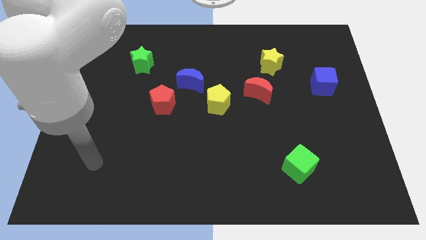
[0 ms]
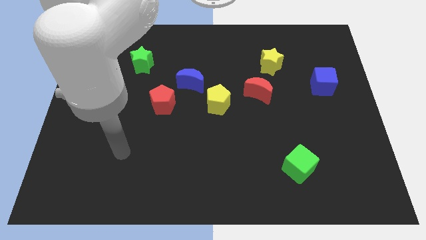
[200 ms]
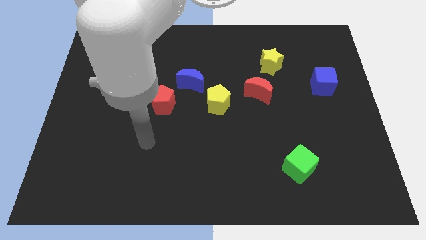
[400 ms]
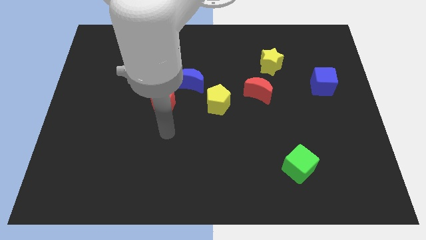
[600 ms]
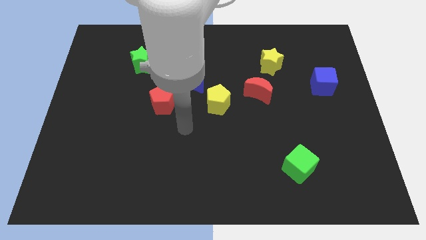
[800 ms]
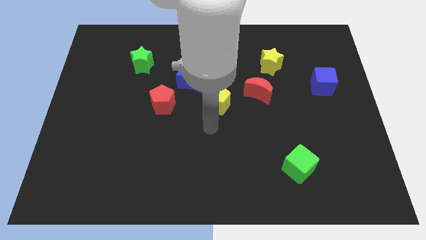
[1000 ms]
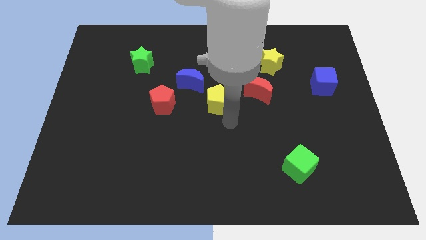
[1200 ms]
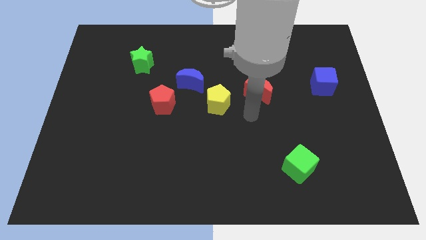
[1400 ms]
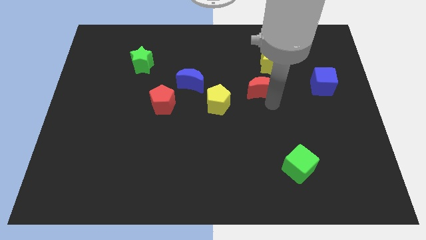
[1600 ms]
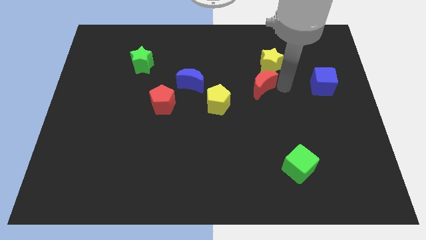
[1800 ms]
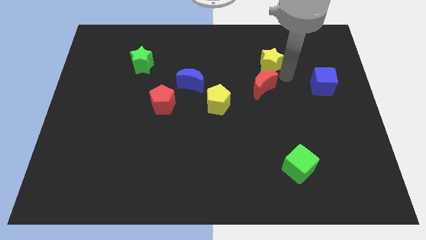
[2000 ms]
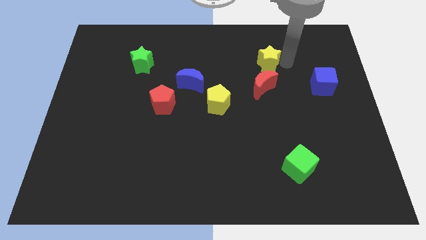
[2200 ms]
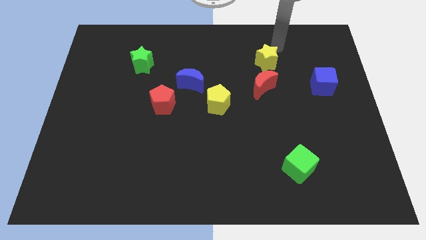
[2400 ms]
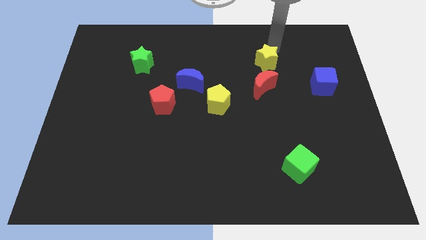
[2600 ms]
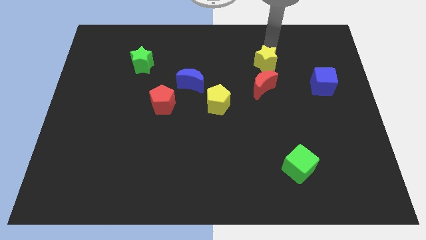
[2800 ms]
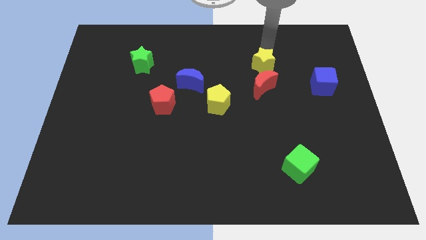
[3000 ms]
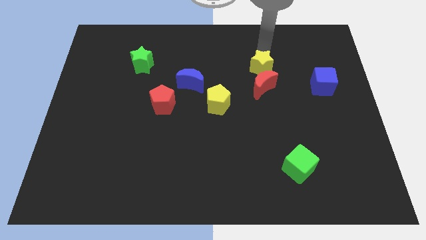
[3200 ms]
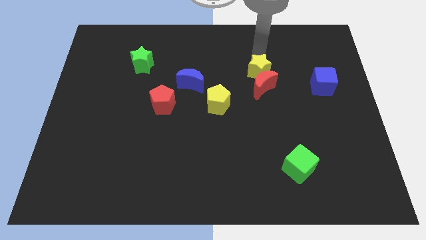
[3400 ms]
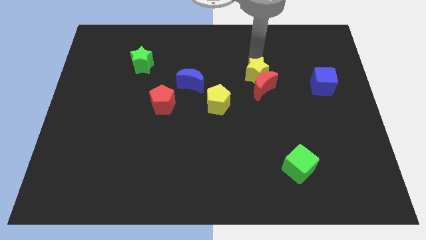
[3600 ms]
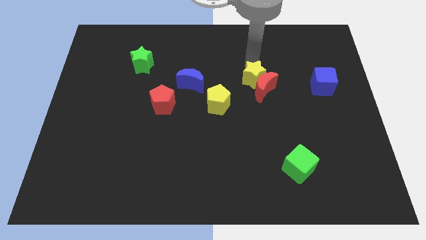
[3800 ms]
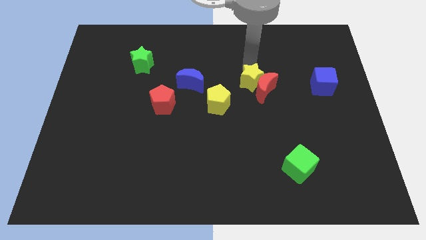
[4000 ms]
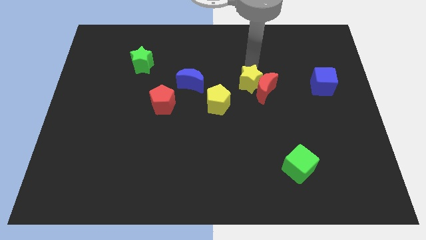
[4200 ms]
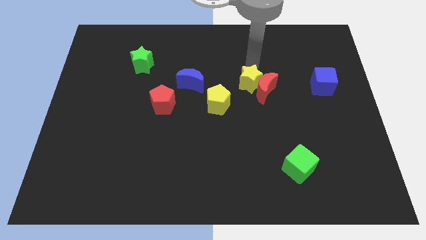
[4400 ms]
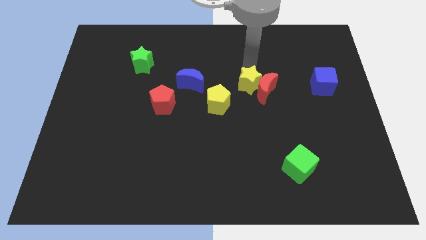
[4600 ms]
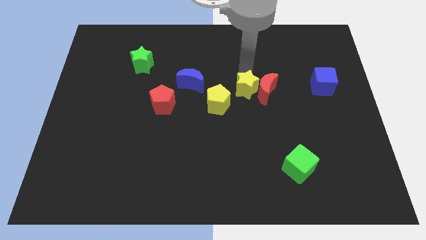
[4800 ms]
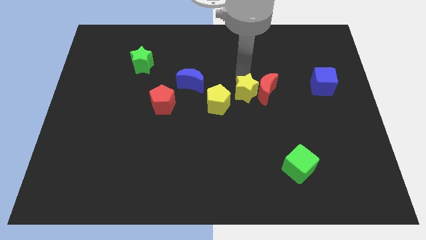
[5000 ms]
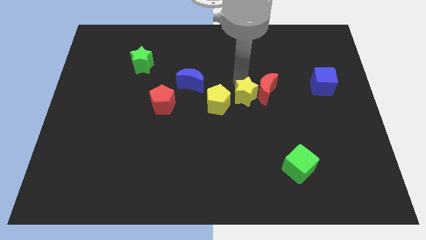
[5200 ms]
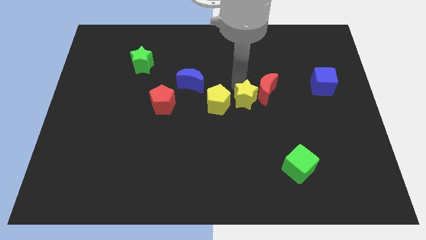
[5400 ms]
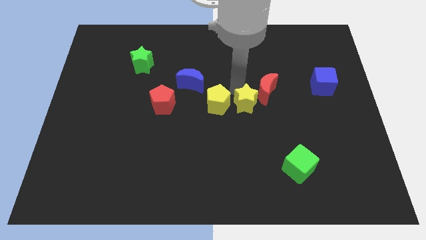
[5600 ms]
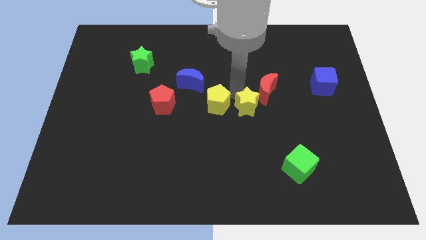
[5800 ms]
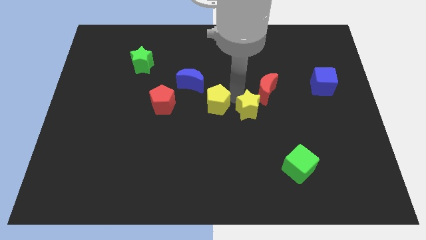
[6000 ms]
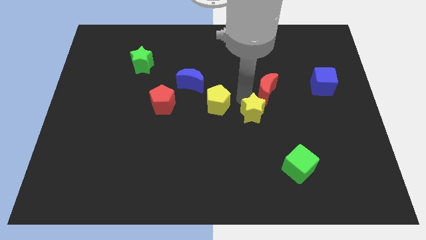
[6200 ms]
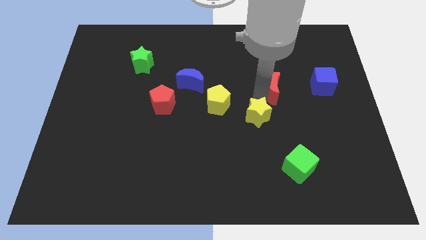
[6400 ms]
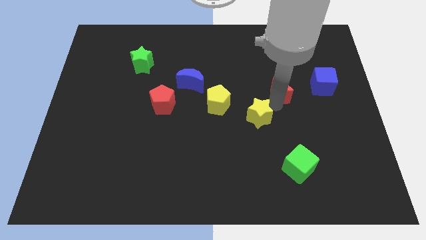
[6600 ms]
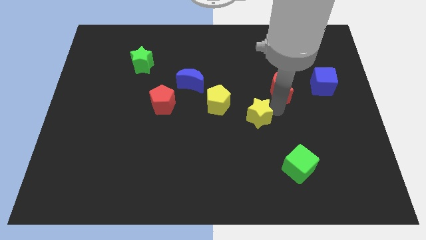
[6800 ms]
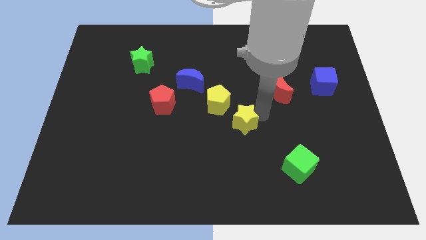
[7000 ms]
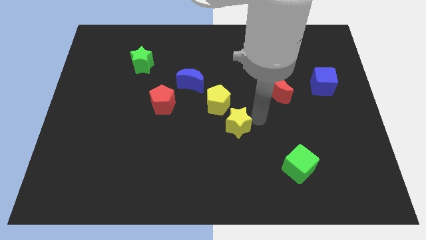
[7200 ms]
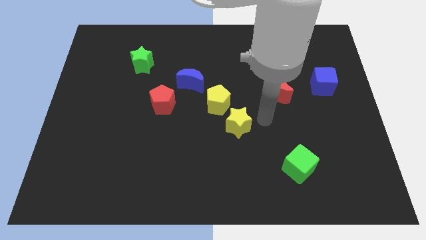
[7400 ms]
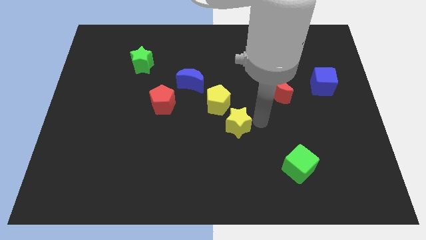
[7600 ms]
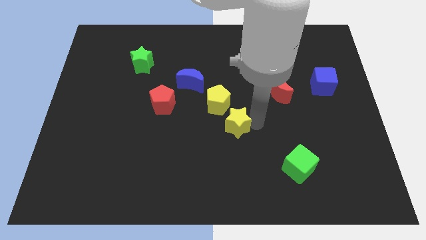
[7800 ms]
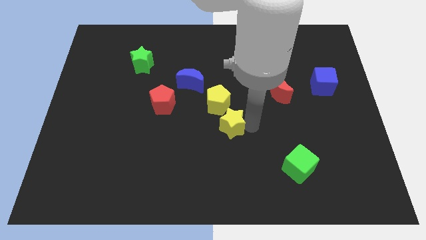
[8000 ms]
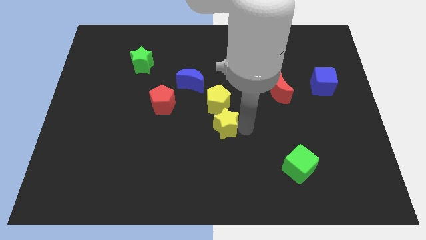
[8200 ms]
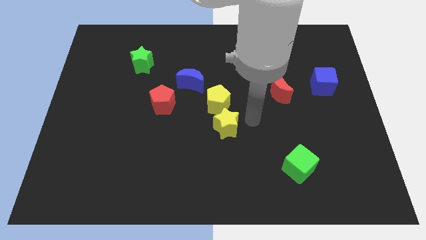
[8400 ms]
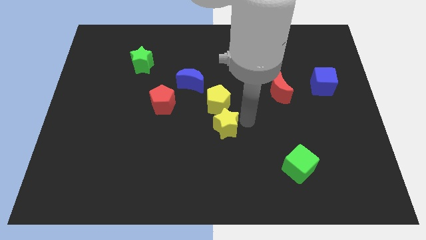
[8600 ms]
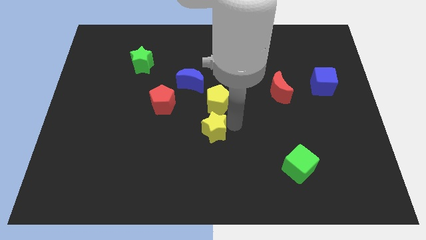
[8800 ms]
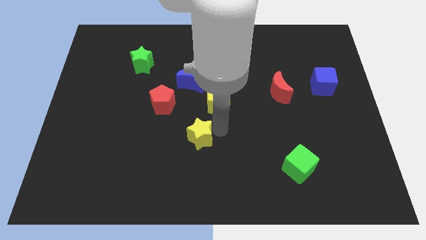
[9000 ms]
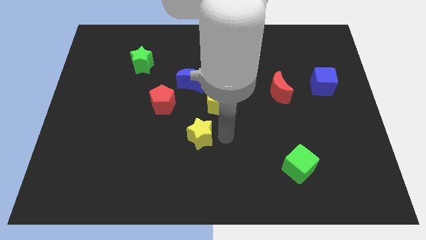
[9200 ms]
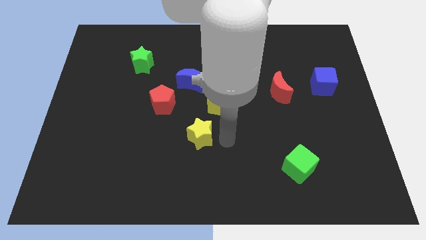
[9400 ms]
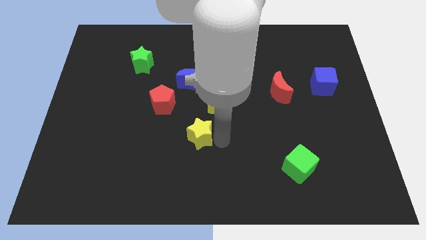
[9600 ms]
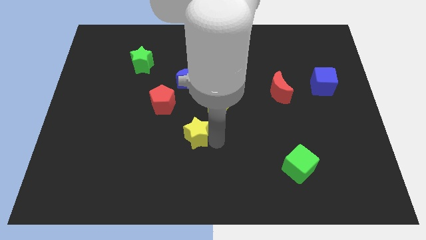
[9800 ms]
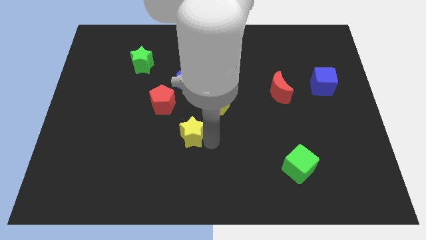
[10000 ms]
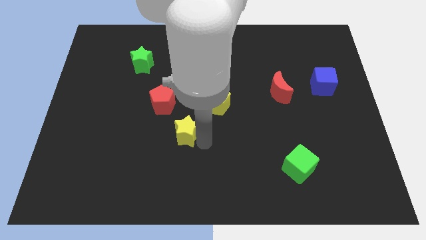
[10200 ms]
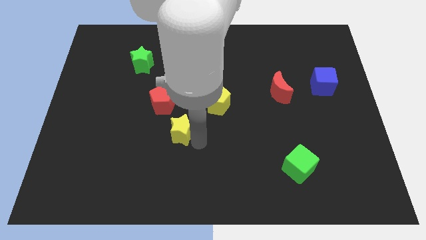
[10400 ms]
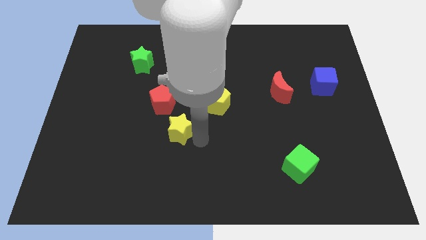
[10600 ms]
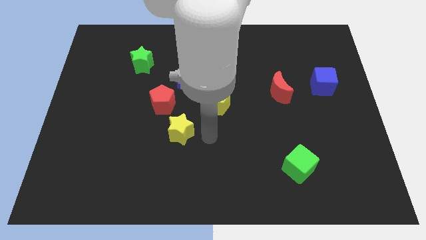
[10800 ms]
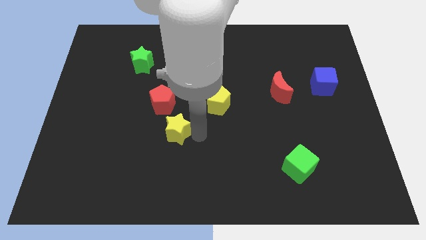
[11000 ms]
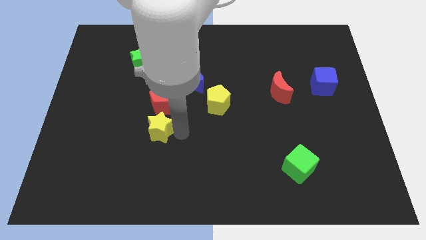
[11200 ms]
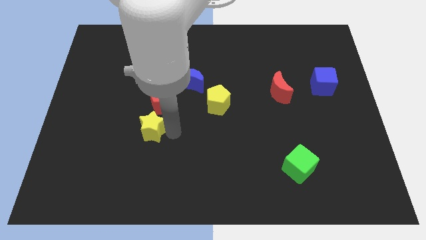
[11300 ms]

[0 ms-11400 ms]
slide the yellow star diagonally down and to the left of the red pentagon

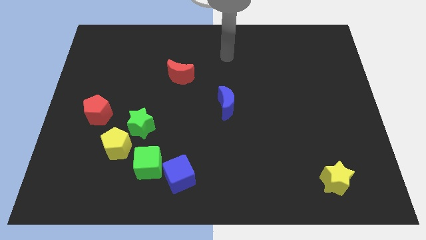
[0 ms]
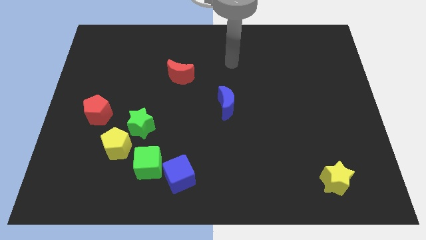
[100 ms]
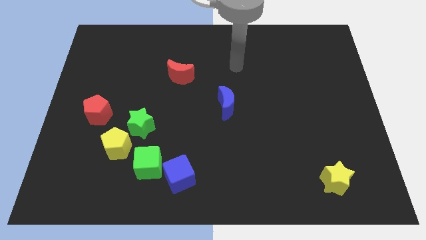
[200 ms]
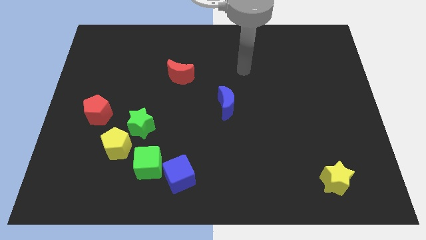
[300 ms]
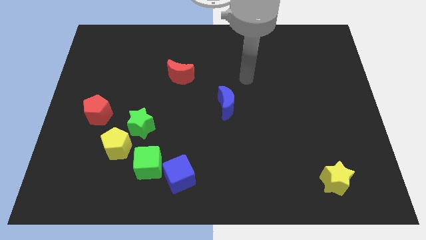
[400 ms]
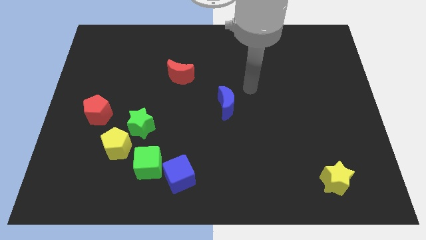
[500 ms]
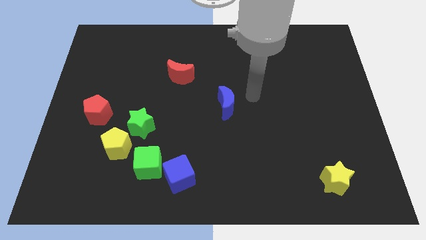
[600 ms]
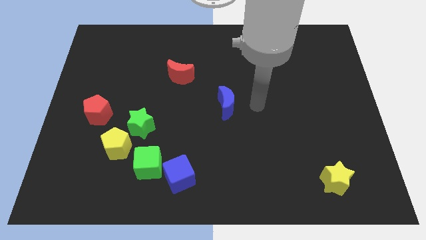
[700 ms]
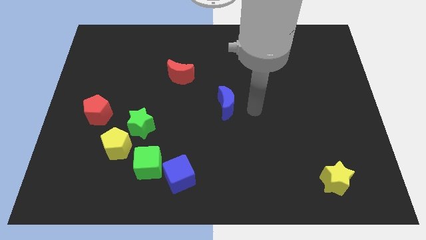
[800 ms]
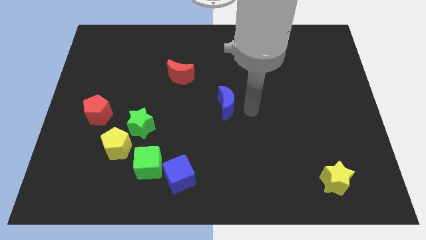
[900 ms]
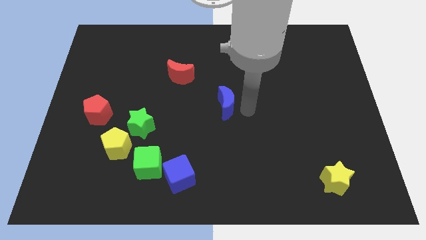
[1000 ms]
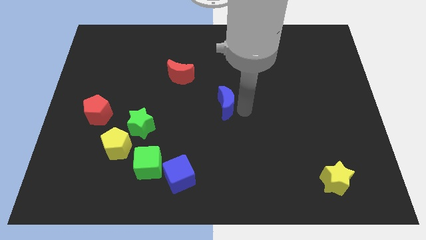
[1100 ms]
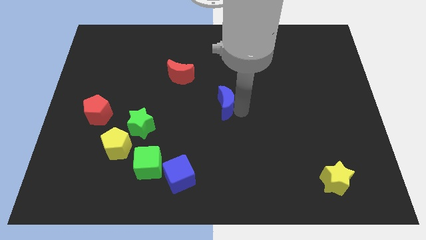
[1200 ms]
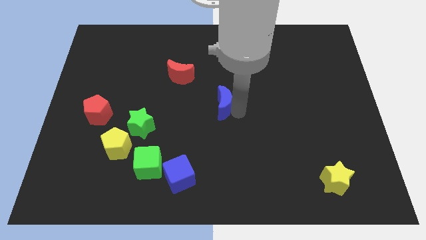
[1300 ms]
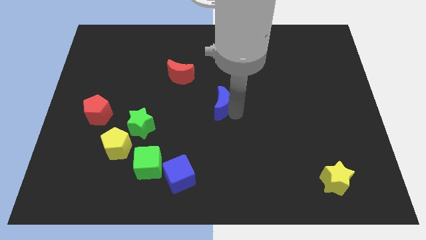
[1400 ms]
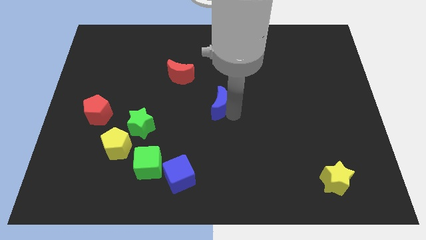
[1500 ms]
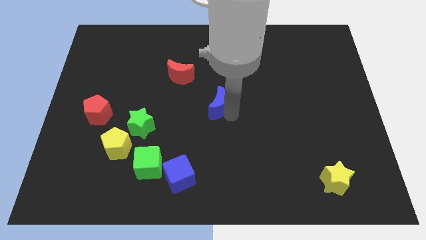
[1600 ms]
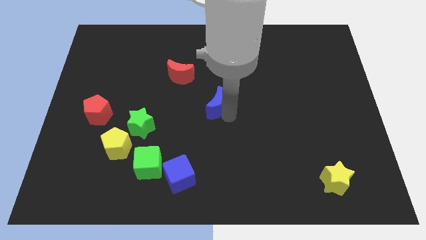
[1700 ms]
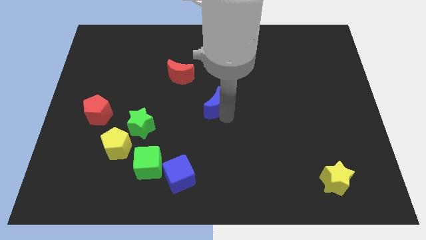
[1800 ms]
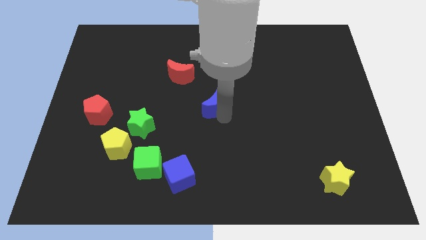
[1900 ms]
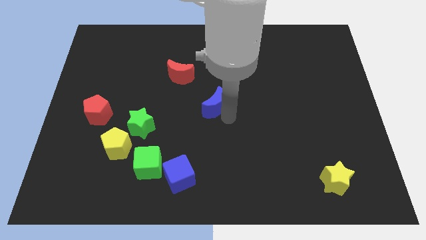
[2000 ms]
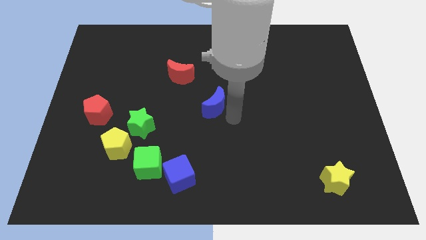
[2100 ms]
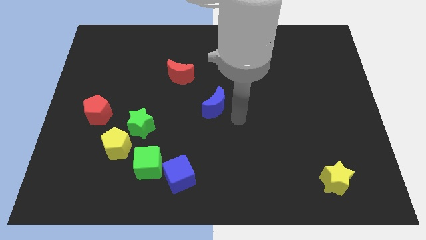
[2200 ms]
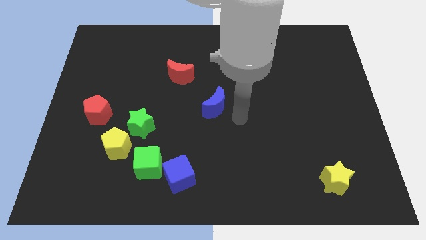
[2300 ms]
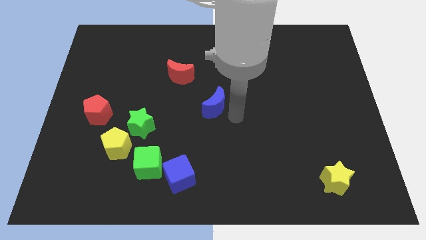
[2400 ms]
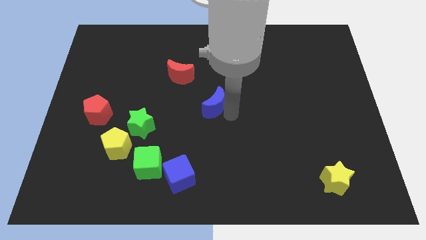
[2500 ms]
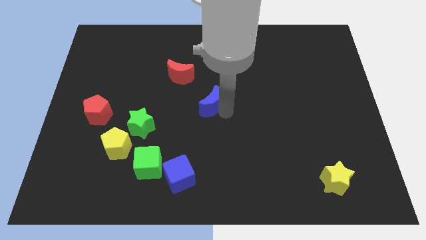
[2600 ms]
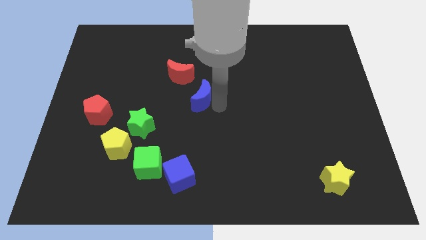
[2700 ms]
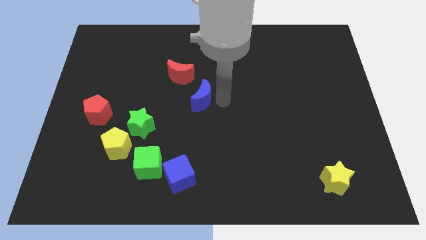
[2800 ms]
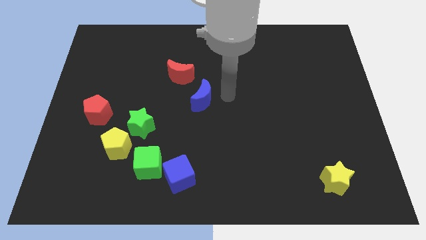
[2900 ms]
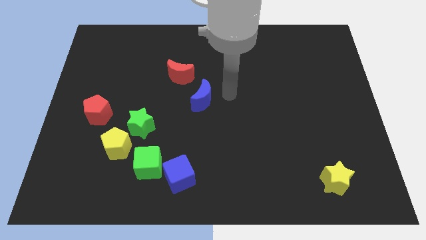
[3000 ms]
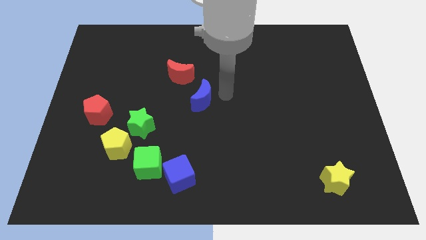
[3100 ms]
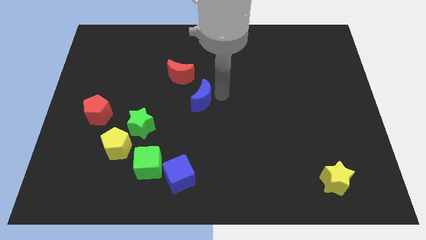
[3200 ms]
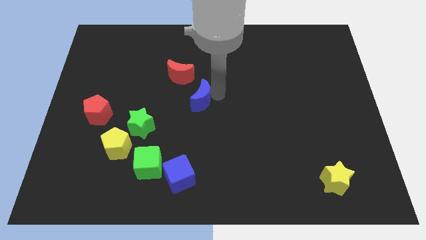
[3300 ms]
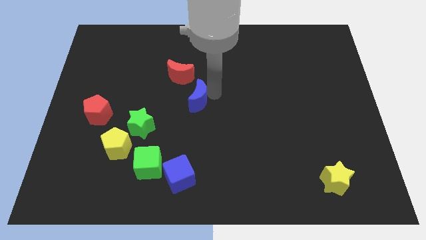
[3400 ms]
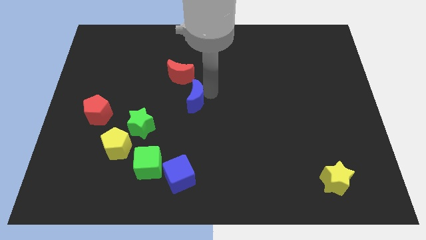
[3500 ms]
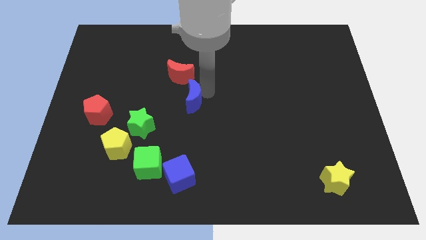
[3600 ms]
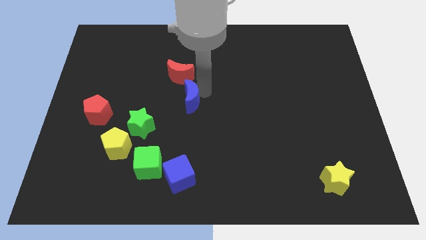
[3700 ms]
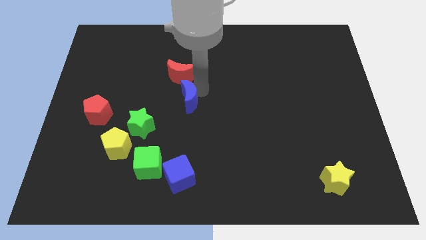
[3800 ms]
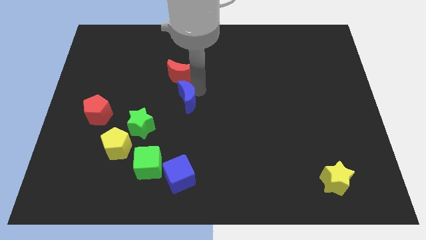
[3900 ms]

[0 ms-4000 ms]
put the blue moon to the top right of the green star
